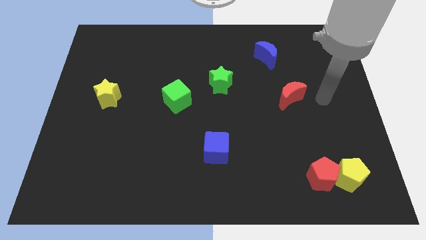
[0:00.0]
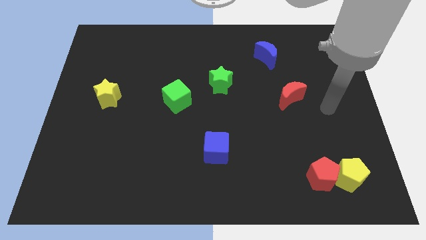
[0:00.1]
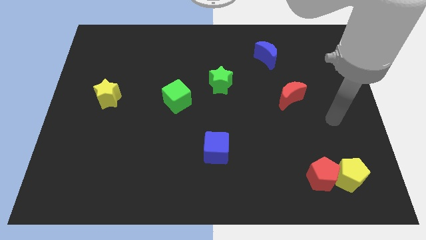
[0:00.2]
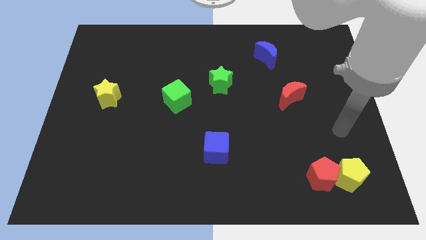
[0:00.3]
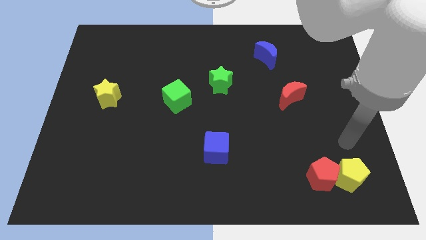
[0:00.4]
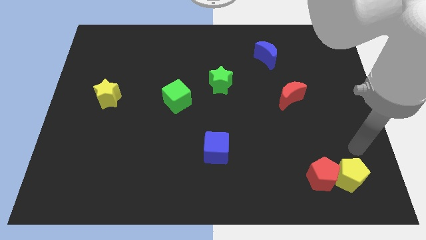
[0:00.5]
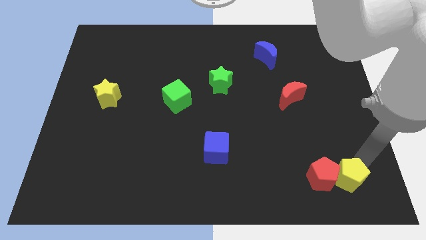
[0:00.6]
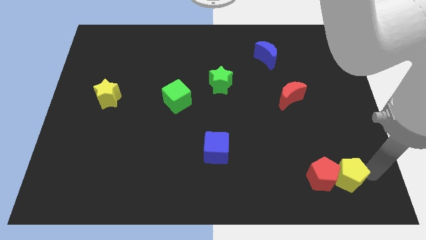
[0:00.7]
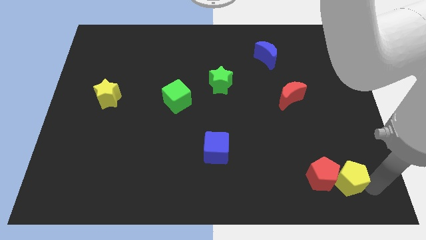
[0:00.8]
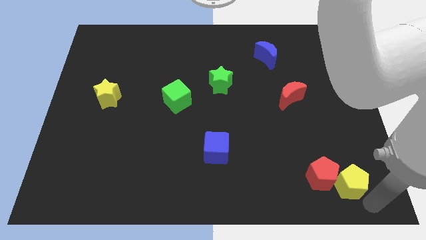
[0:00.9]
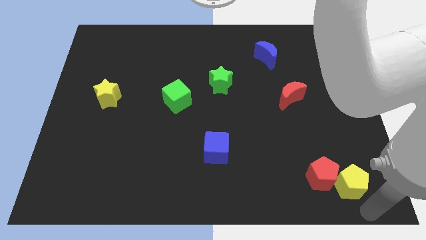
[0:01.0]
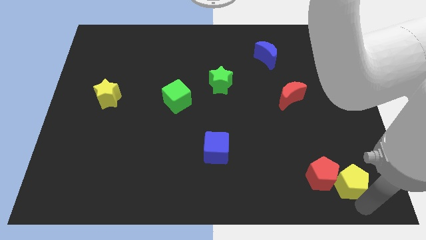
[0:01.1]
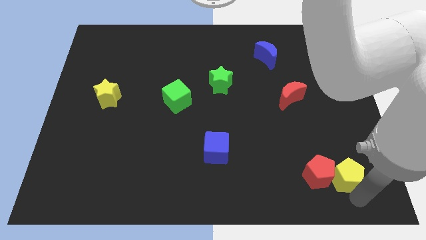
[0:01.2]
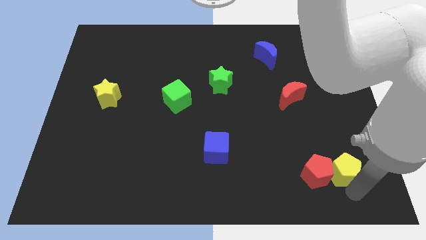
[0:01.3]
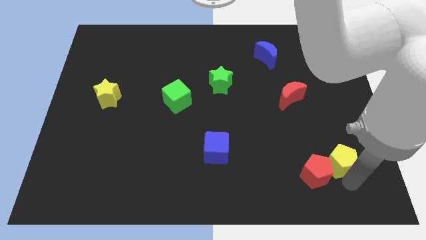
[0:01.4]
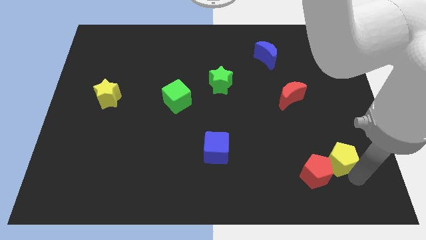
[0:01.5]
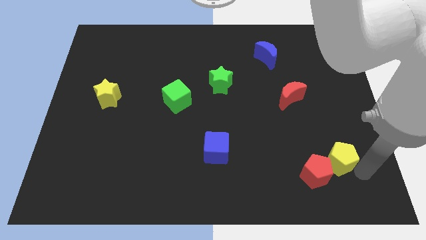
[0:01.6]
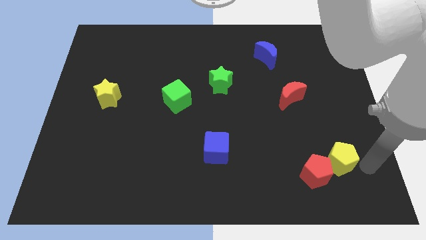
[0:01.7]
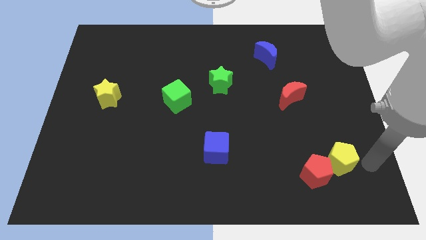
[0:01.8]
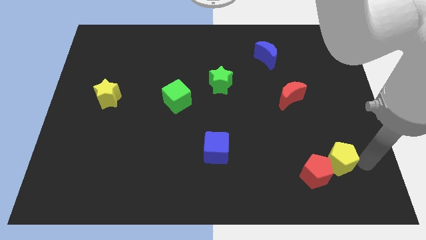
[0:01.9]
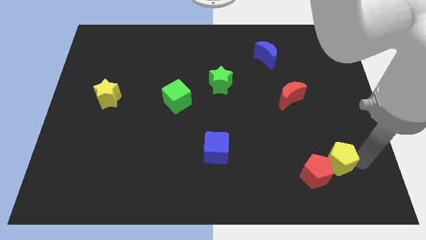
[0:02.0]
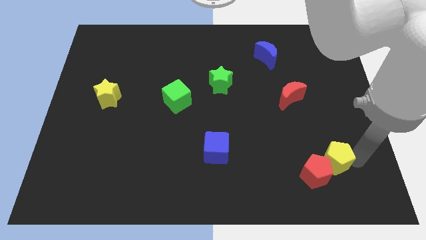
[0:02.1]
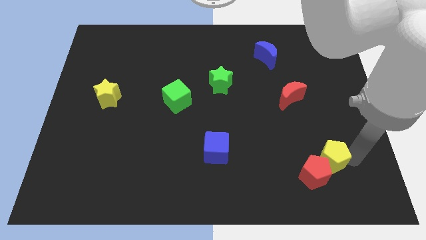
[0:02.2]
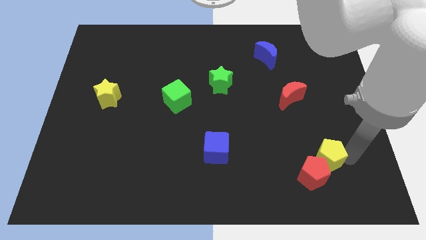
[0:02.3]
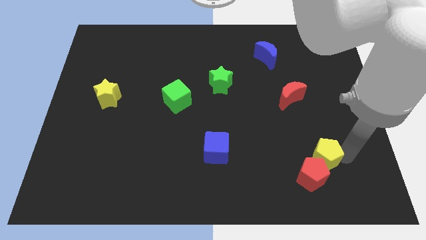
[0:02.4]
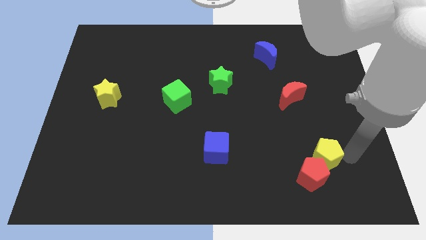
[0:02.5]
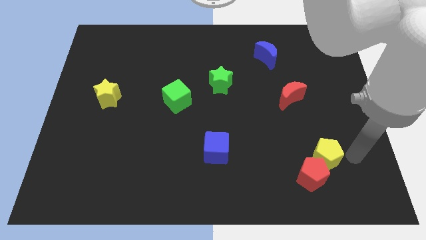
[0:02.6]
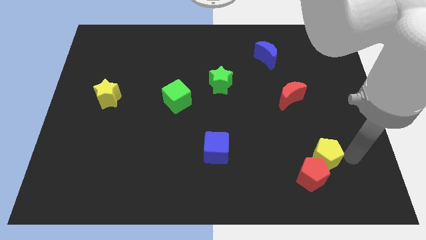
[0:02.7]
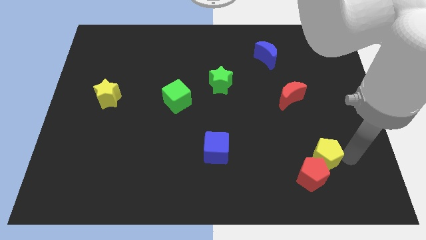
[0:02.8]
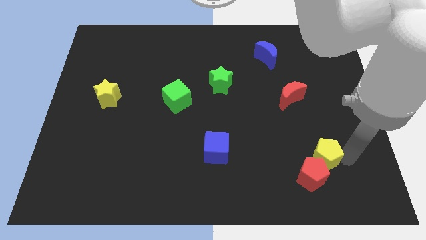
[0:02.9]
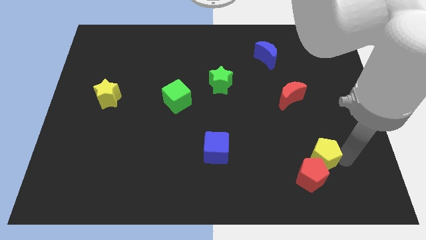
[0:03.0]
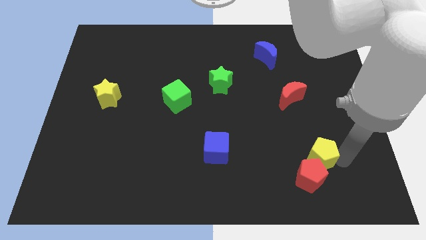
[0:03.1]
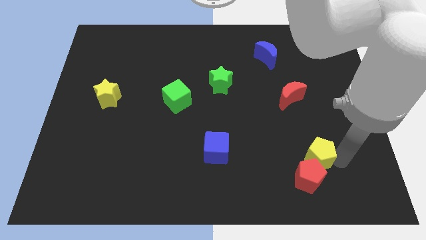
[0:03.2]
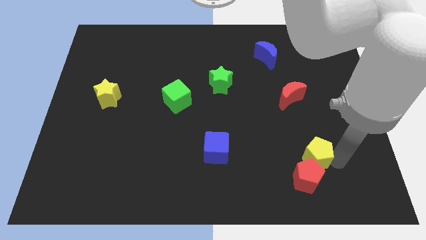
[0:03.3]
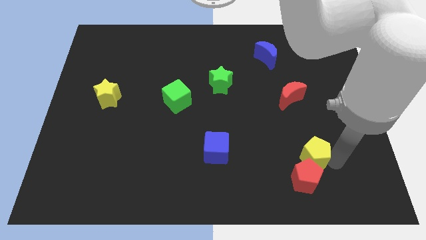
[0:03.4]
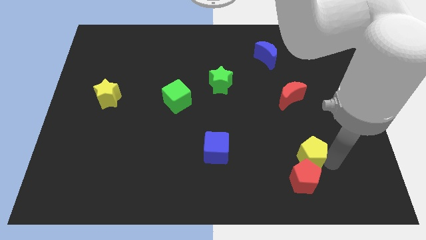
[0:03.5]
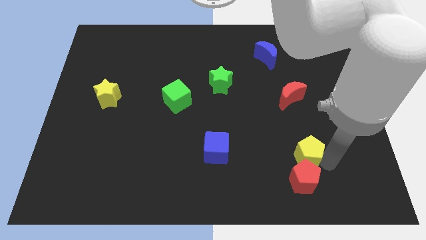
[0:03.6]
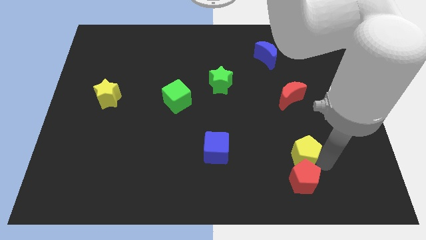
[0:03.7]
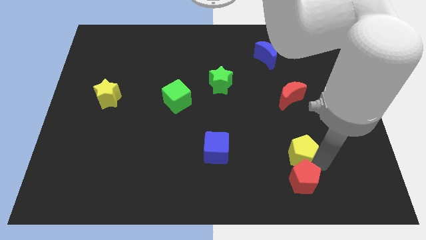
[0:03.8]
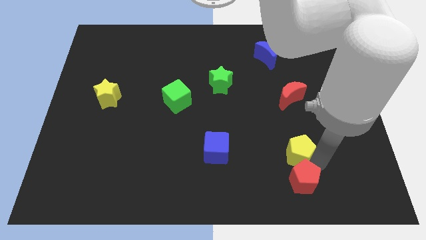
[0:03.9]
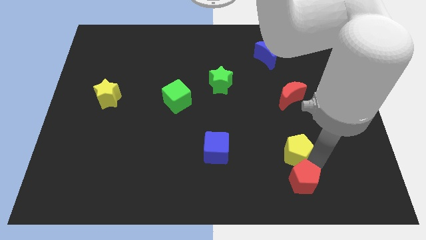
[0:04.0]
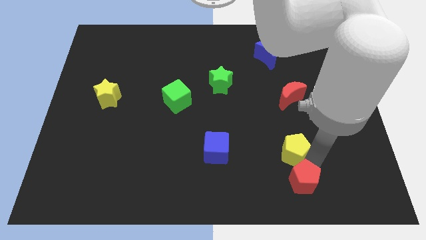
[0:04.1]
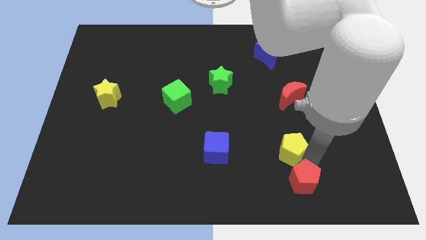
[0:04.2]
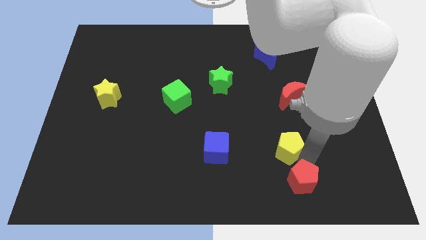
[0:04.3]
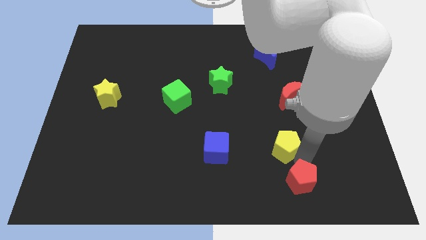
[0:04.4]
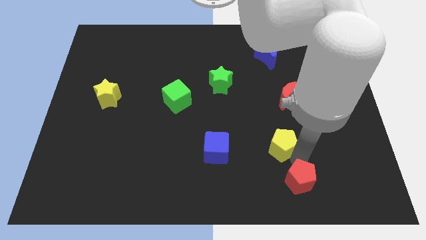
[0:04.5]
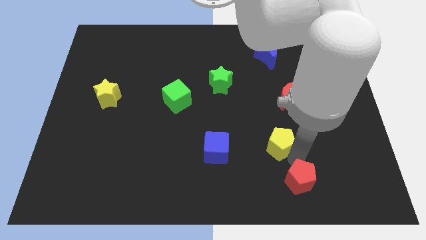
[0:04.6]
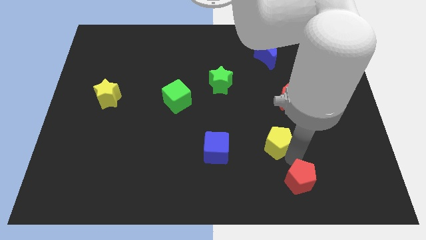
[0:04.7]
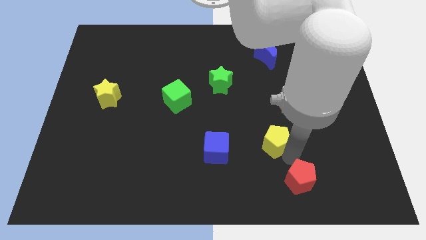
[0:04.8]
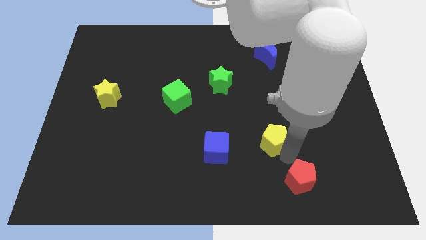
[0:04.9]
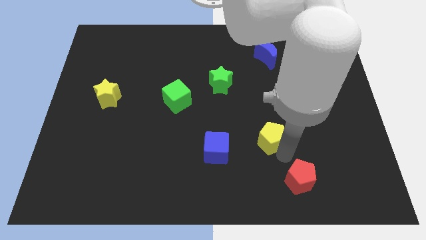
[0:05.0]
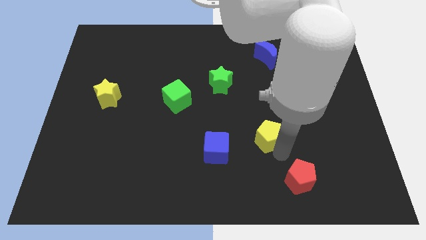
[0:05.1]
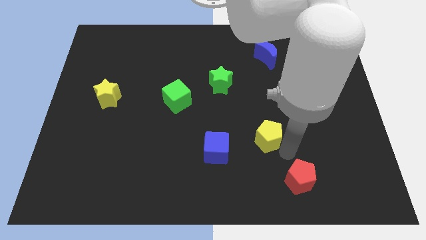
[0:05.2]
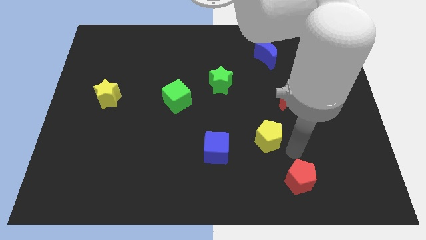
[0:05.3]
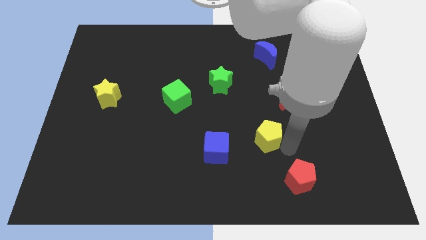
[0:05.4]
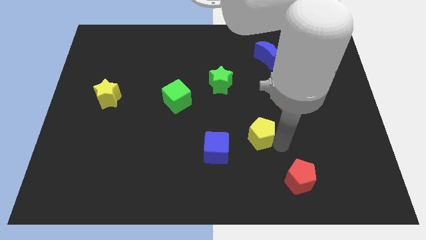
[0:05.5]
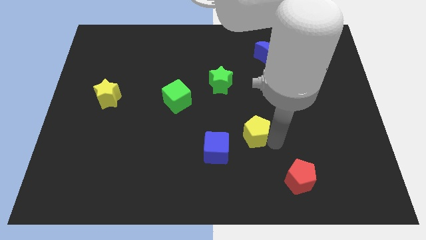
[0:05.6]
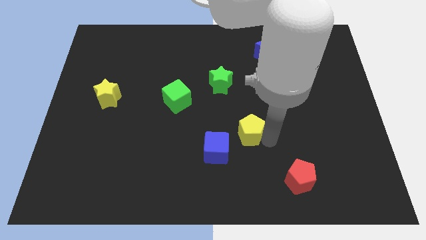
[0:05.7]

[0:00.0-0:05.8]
slide the yellow pentagon to the middle

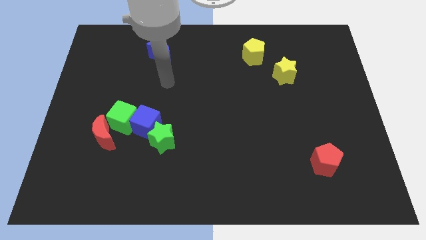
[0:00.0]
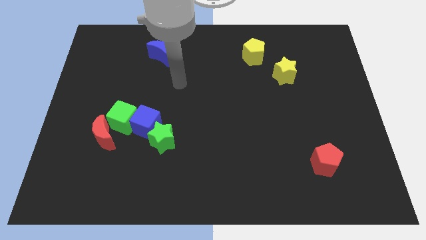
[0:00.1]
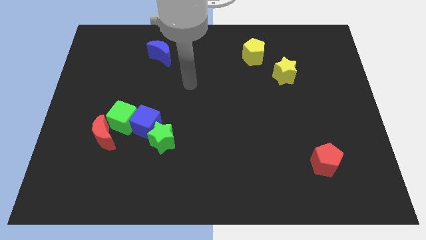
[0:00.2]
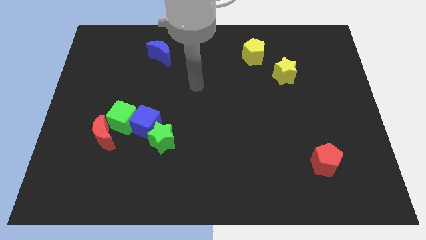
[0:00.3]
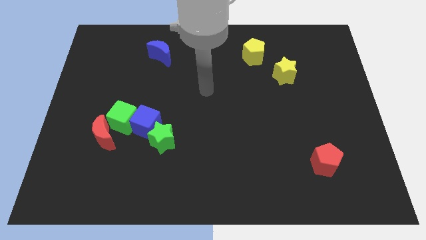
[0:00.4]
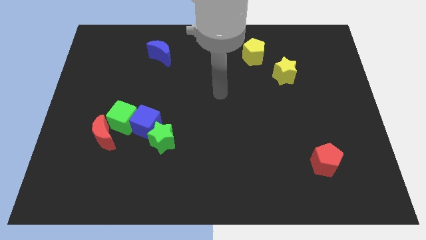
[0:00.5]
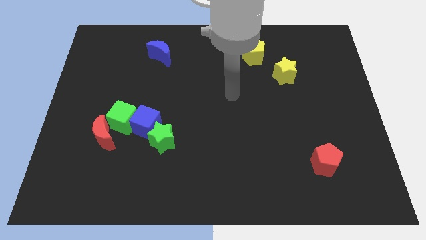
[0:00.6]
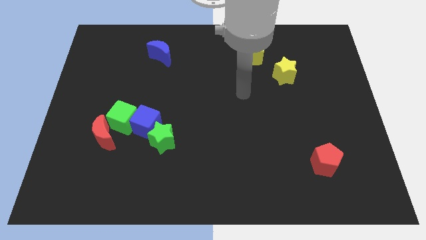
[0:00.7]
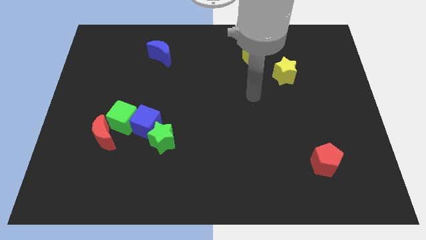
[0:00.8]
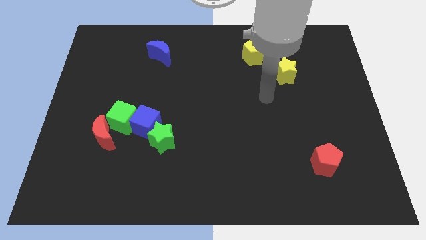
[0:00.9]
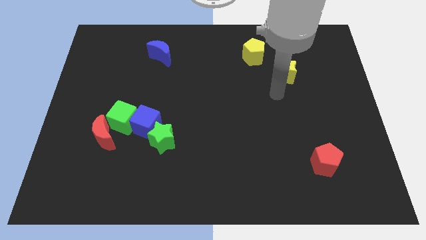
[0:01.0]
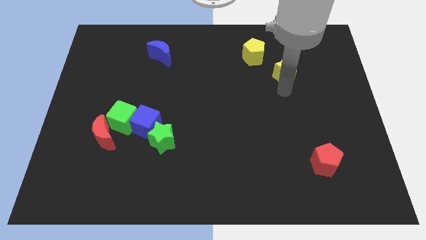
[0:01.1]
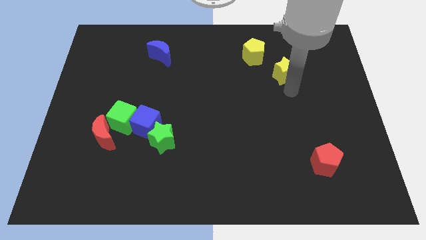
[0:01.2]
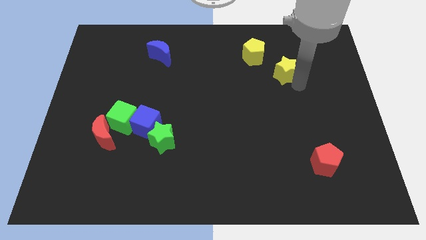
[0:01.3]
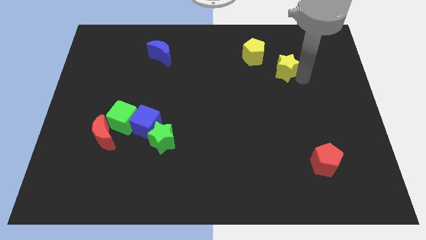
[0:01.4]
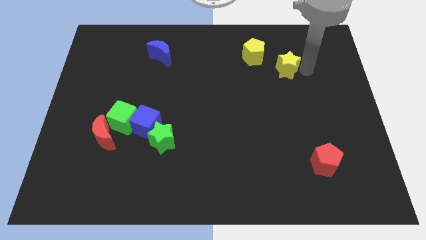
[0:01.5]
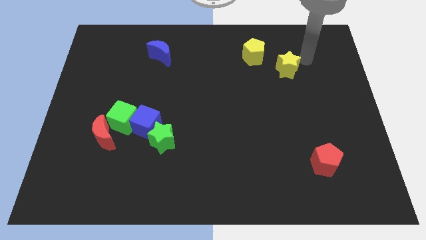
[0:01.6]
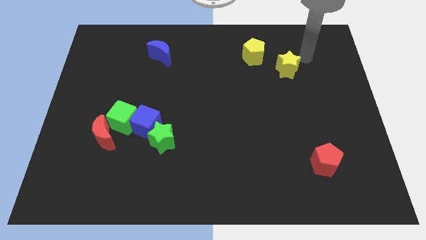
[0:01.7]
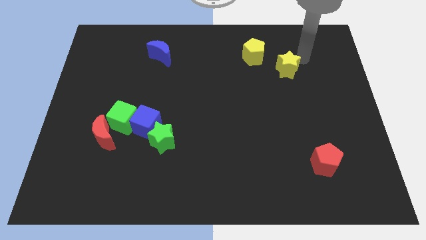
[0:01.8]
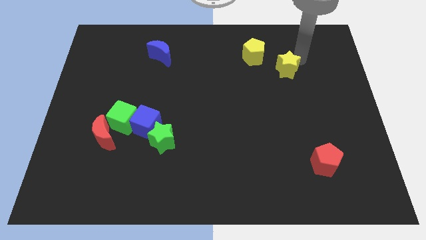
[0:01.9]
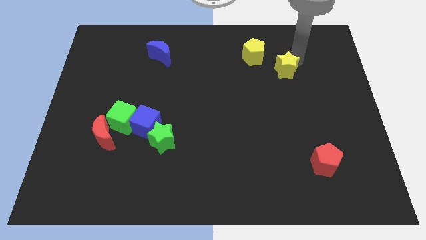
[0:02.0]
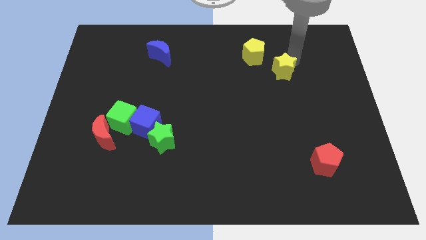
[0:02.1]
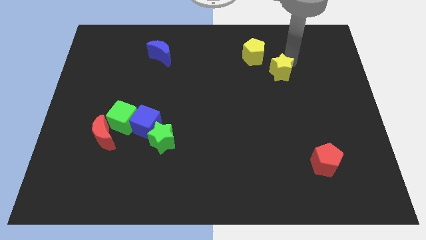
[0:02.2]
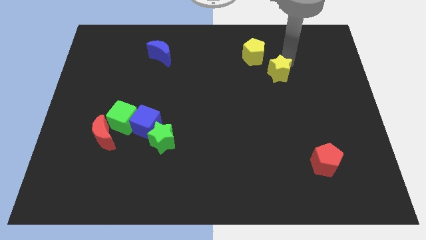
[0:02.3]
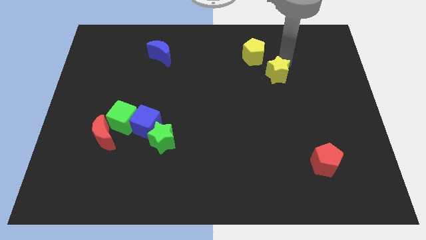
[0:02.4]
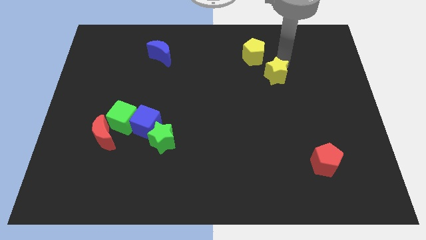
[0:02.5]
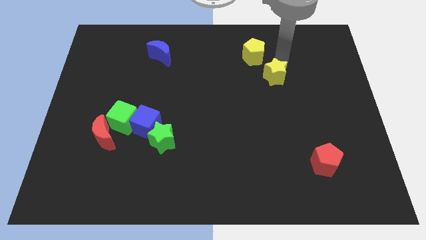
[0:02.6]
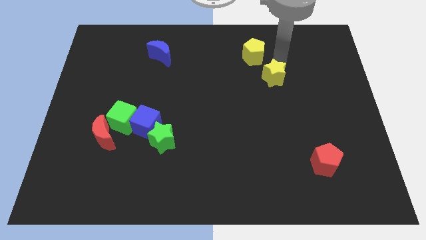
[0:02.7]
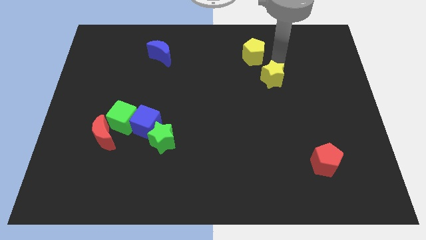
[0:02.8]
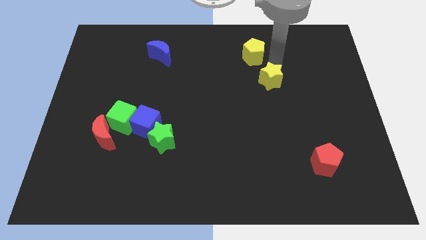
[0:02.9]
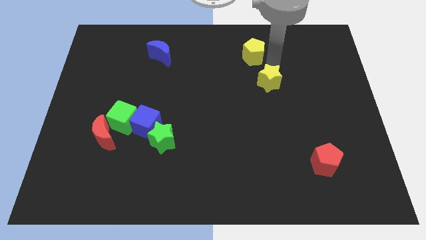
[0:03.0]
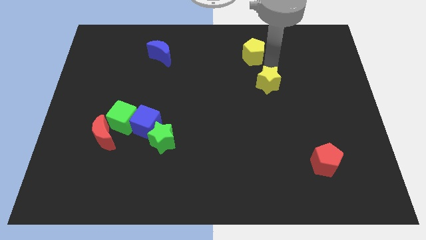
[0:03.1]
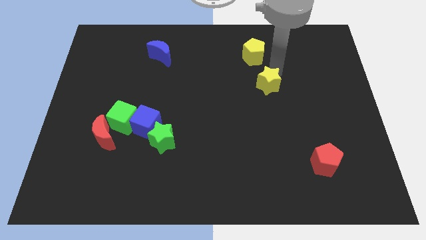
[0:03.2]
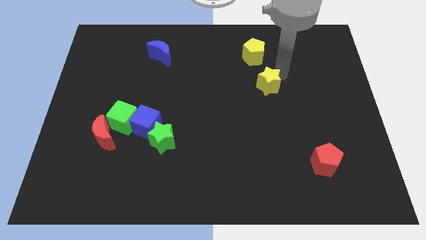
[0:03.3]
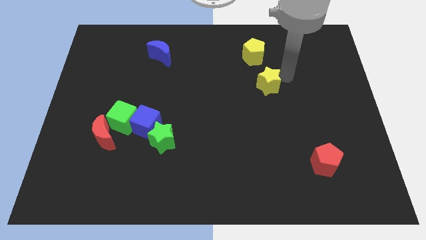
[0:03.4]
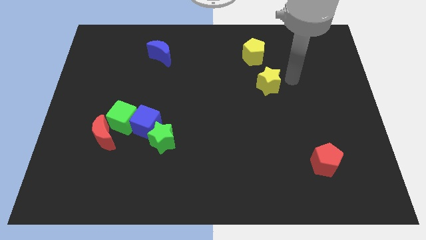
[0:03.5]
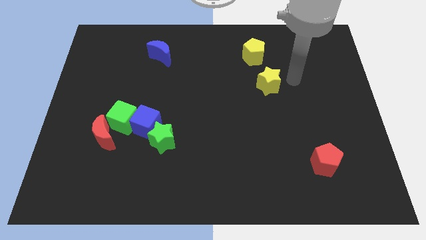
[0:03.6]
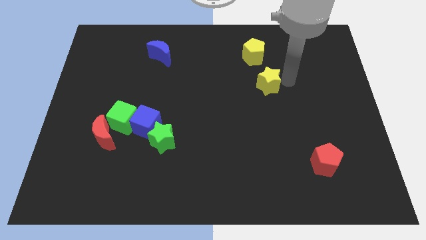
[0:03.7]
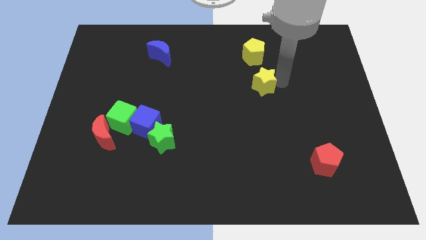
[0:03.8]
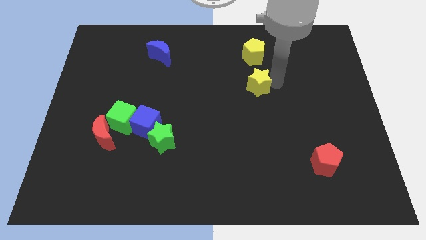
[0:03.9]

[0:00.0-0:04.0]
move the yellow star to the center
